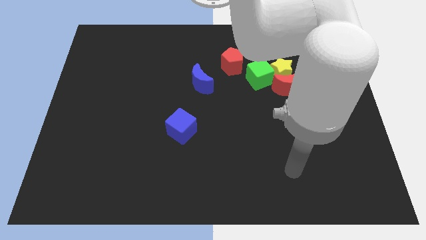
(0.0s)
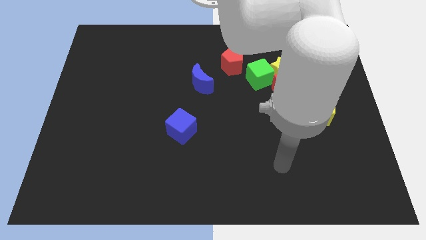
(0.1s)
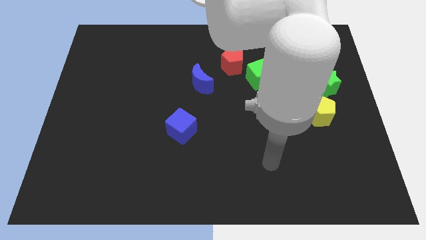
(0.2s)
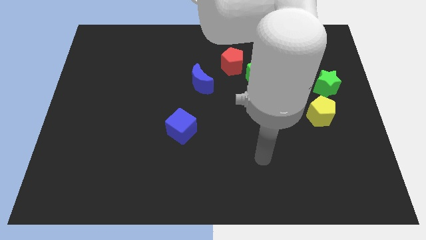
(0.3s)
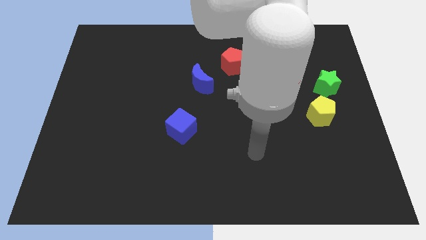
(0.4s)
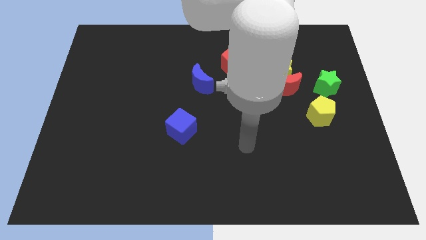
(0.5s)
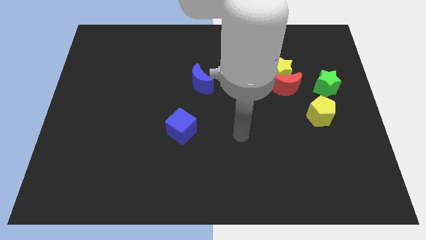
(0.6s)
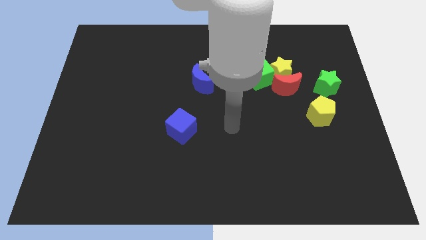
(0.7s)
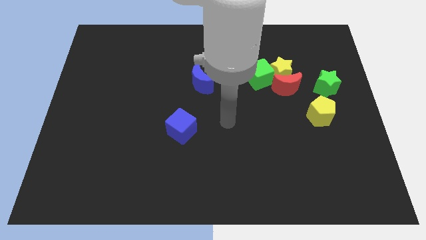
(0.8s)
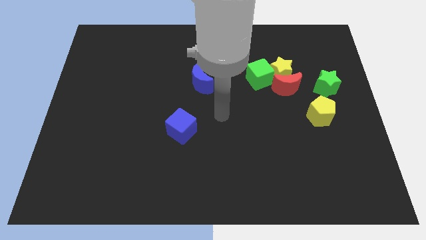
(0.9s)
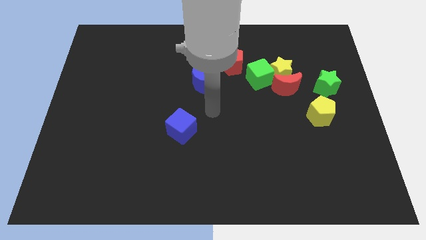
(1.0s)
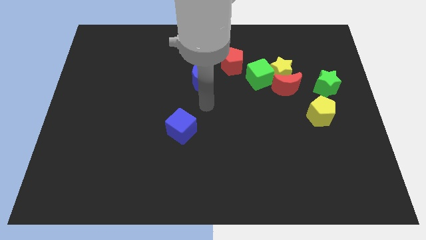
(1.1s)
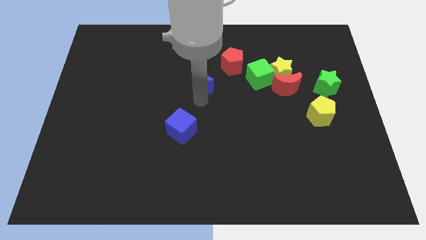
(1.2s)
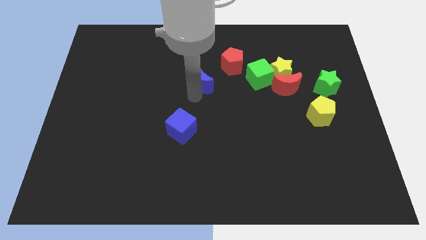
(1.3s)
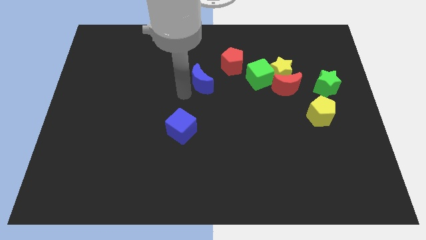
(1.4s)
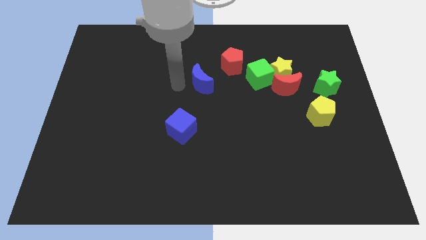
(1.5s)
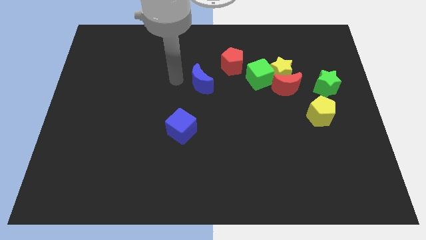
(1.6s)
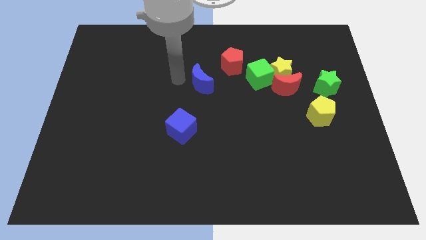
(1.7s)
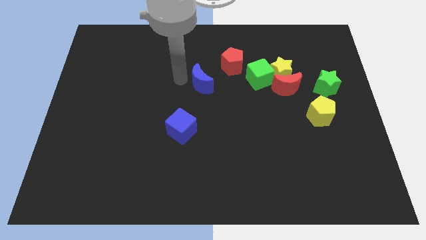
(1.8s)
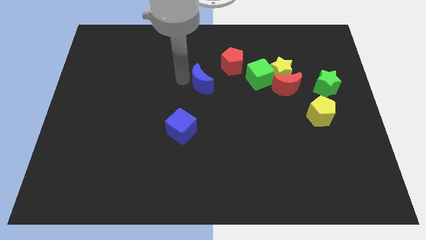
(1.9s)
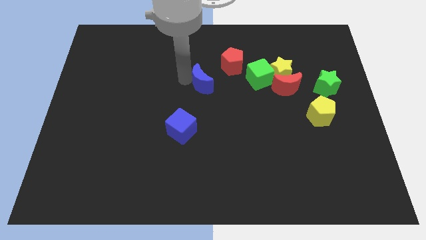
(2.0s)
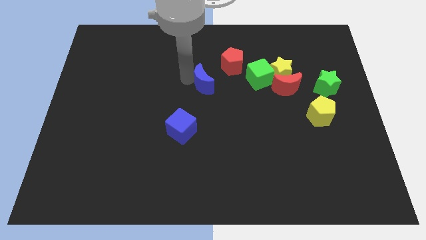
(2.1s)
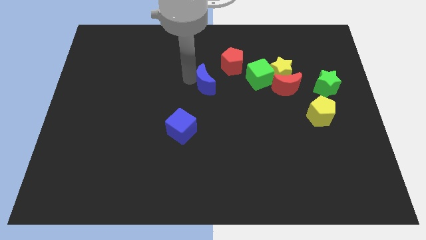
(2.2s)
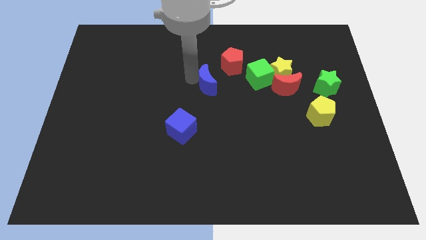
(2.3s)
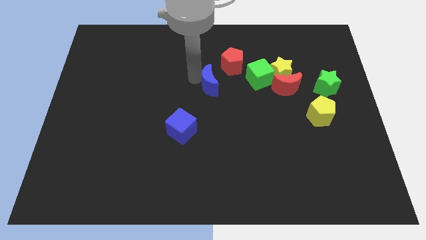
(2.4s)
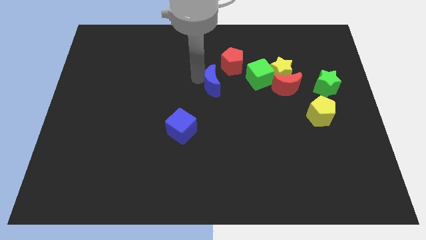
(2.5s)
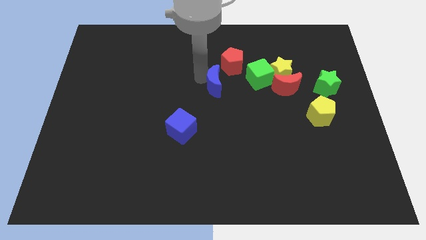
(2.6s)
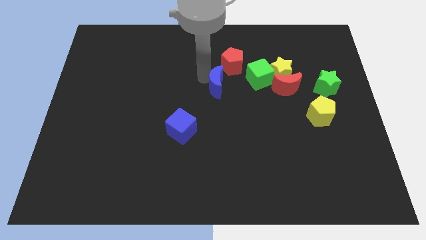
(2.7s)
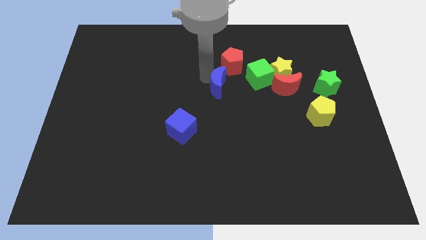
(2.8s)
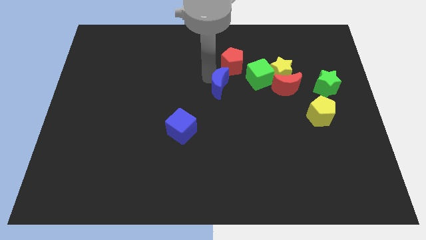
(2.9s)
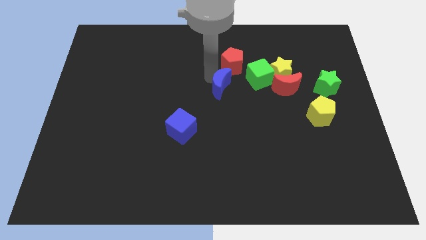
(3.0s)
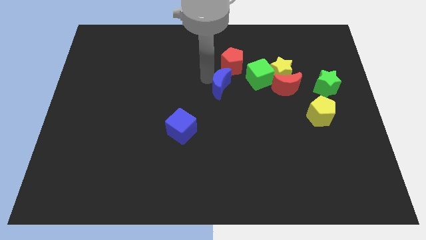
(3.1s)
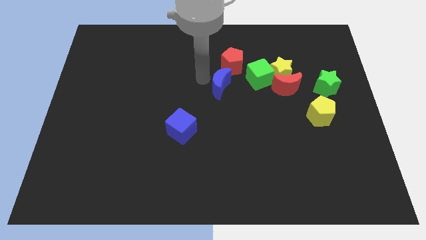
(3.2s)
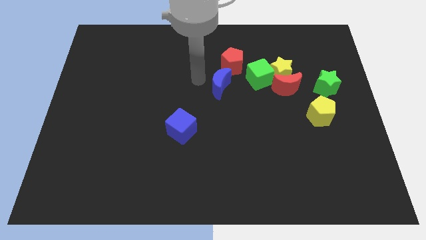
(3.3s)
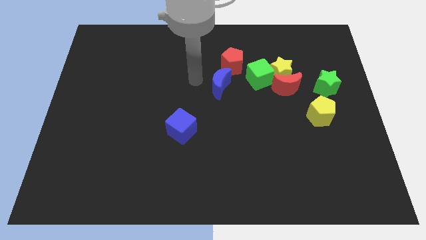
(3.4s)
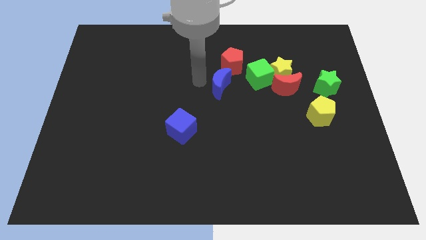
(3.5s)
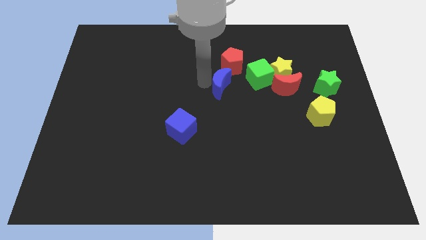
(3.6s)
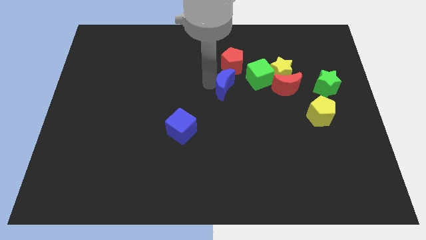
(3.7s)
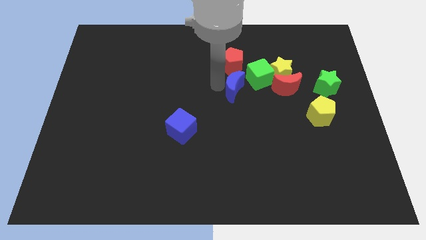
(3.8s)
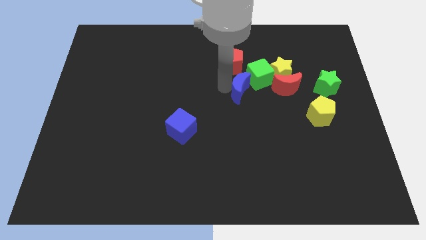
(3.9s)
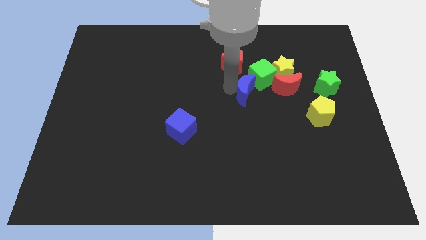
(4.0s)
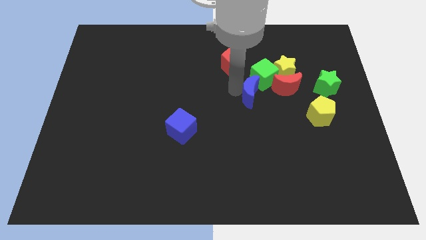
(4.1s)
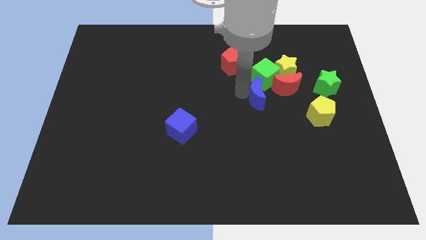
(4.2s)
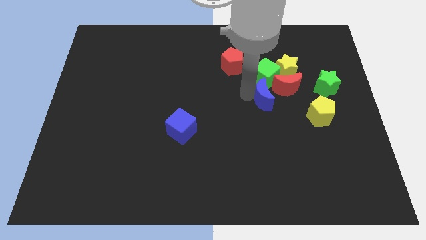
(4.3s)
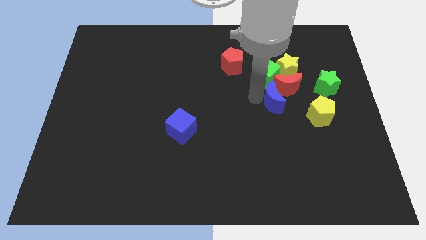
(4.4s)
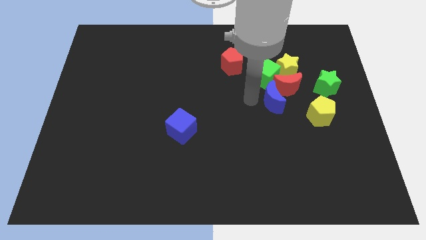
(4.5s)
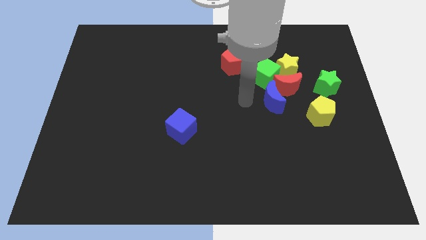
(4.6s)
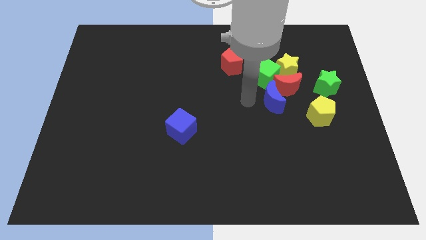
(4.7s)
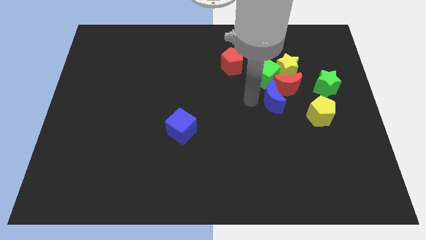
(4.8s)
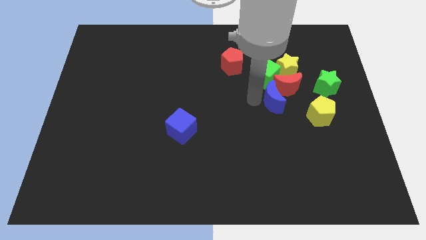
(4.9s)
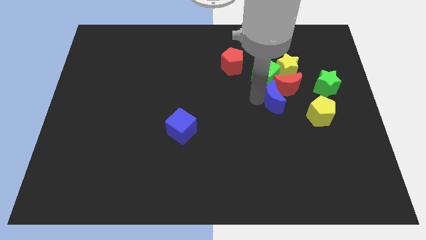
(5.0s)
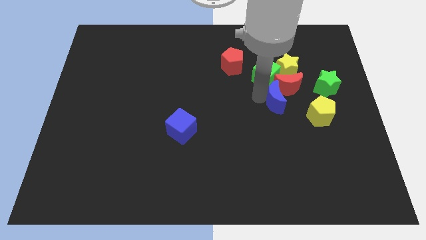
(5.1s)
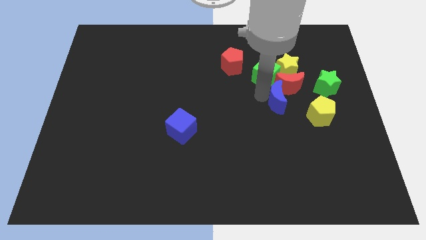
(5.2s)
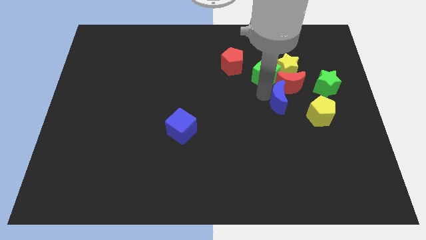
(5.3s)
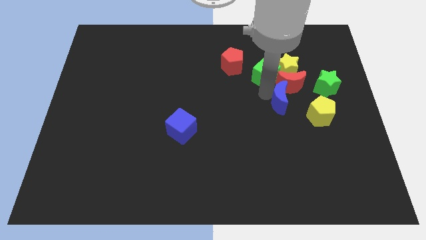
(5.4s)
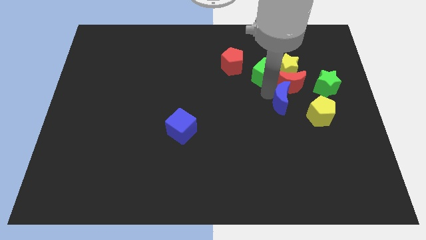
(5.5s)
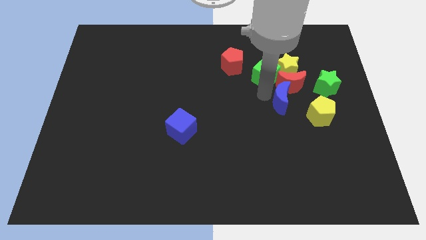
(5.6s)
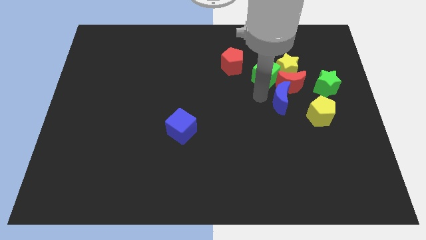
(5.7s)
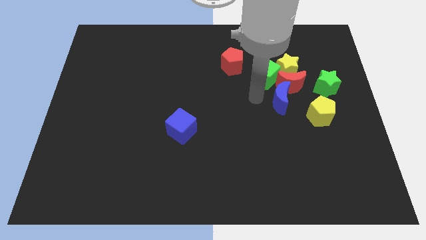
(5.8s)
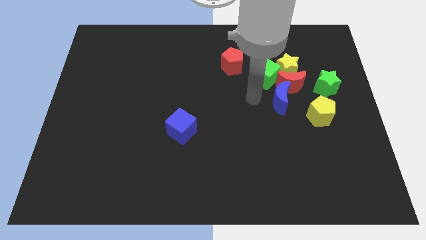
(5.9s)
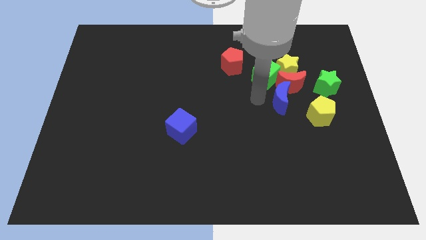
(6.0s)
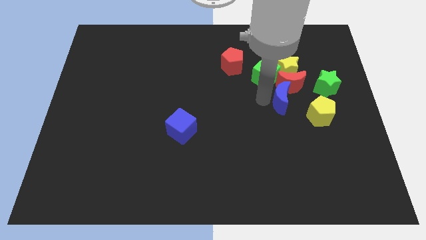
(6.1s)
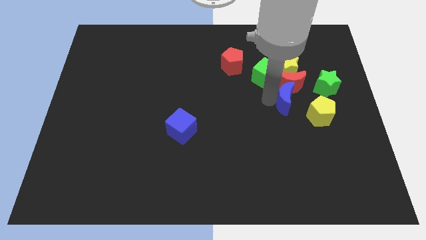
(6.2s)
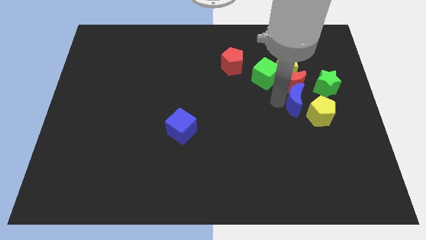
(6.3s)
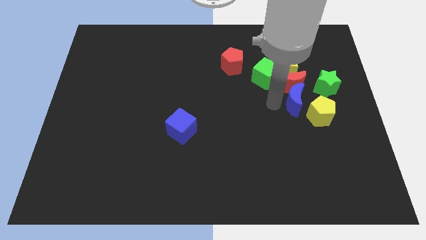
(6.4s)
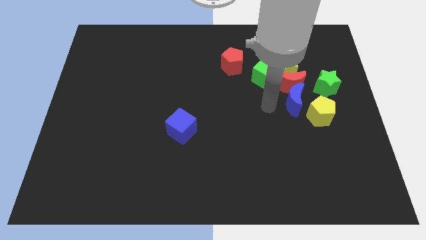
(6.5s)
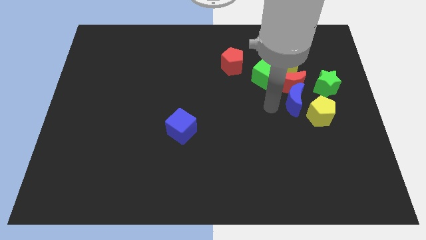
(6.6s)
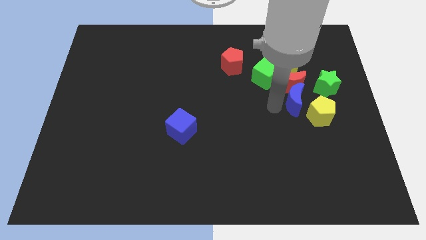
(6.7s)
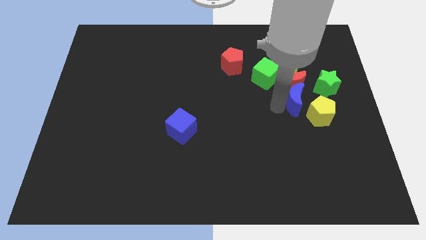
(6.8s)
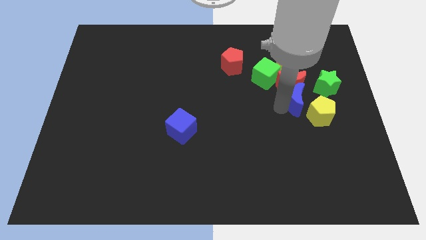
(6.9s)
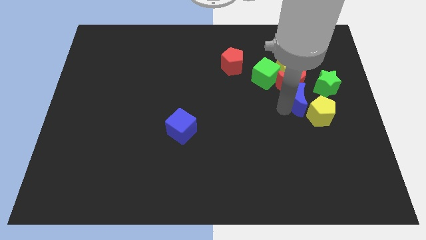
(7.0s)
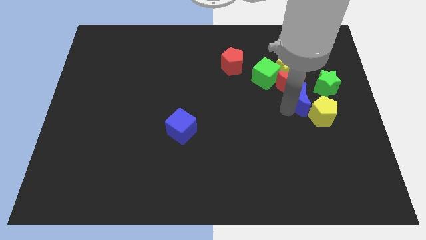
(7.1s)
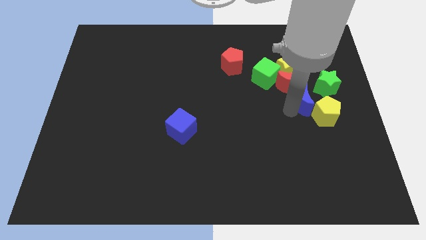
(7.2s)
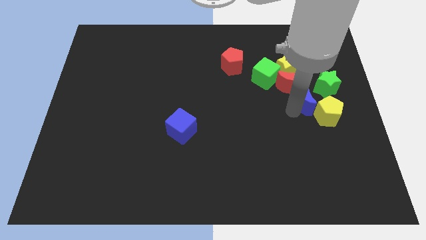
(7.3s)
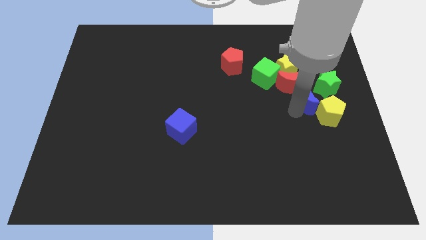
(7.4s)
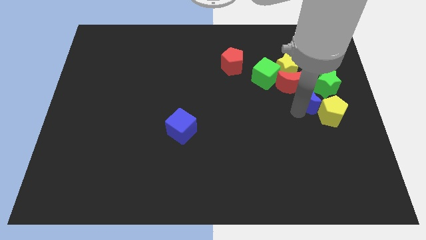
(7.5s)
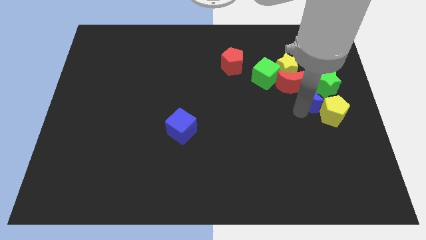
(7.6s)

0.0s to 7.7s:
slide the blue moon to the right side of the red moon
